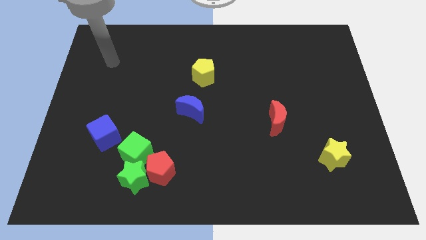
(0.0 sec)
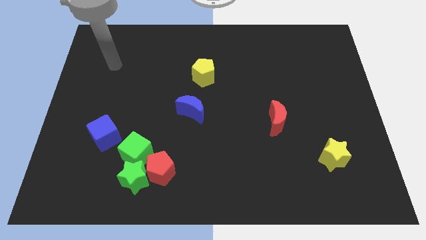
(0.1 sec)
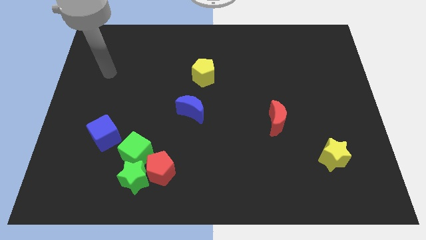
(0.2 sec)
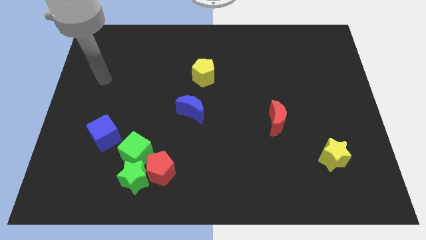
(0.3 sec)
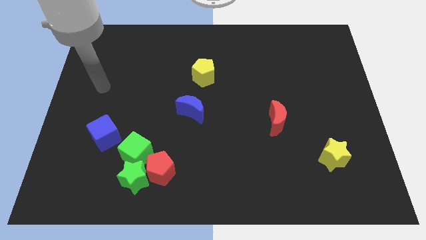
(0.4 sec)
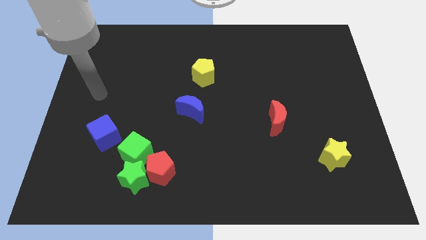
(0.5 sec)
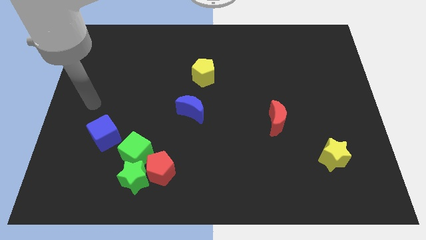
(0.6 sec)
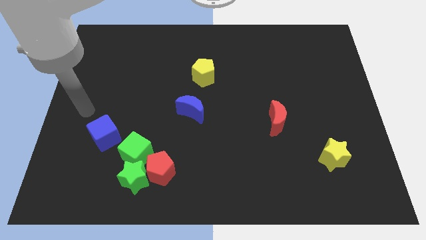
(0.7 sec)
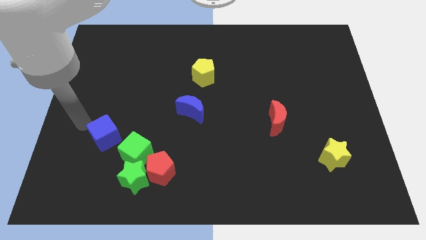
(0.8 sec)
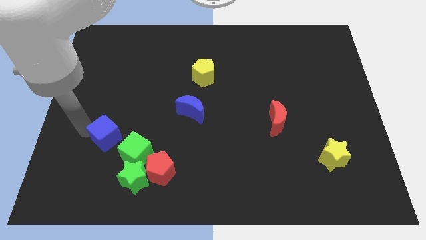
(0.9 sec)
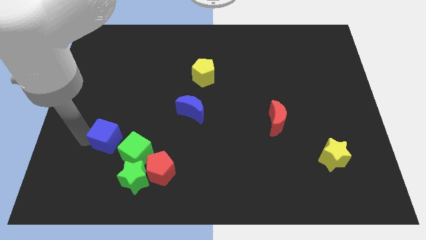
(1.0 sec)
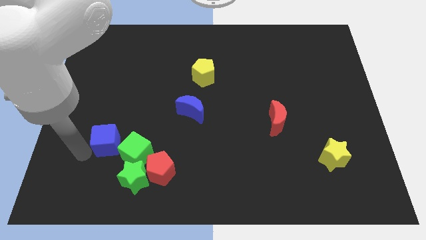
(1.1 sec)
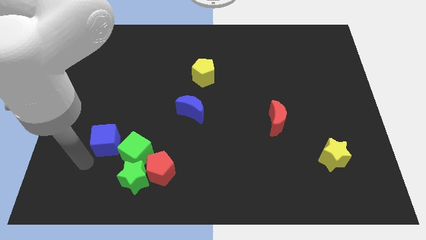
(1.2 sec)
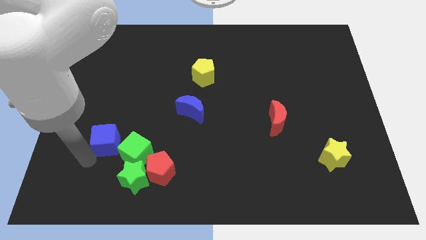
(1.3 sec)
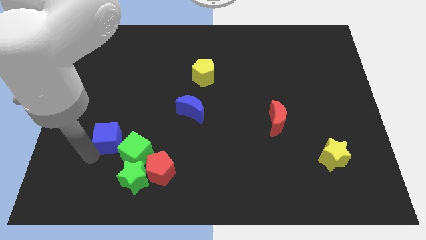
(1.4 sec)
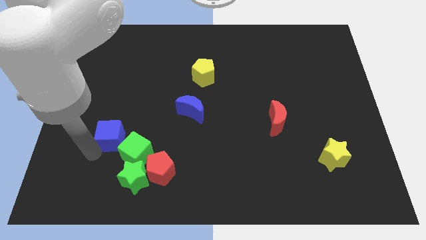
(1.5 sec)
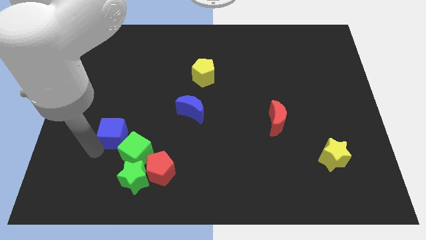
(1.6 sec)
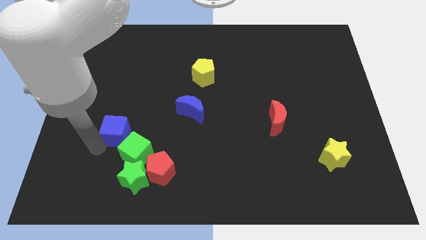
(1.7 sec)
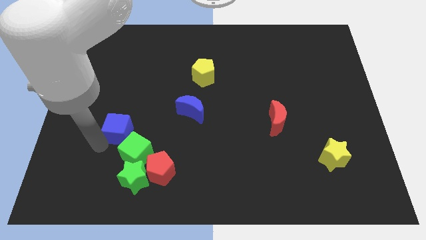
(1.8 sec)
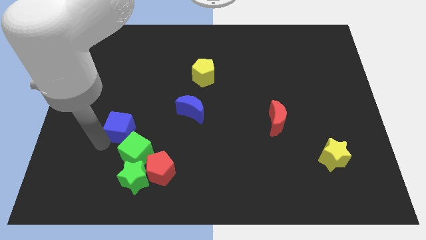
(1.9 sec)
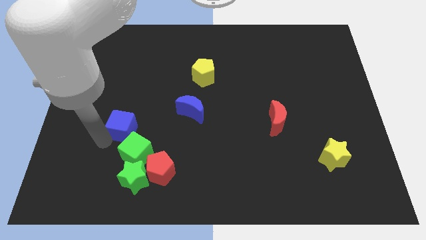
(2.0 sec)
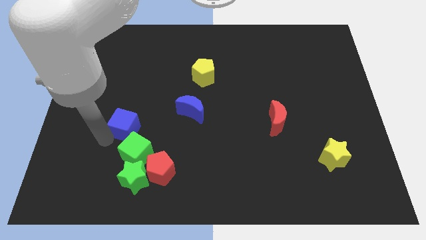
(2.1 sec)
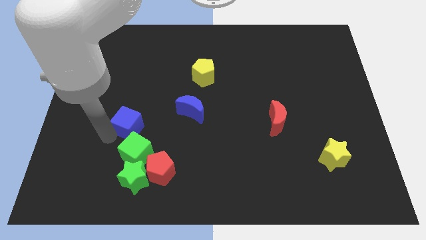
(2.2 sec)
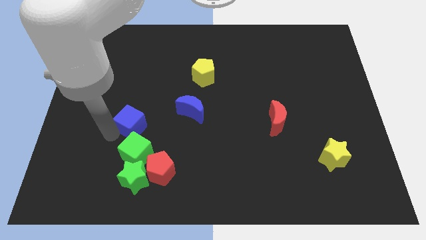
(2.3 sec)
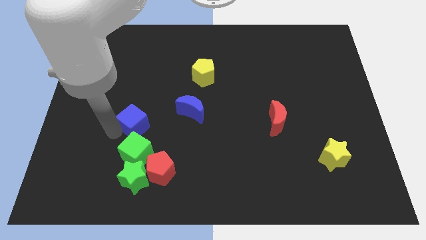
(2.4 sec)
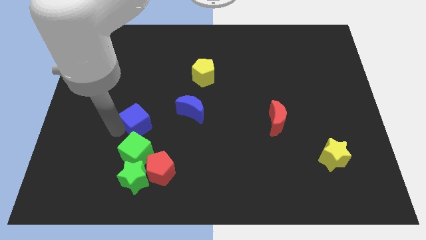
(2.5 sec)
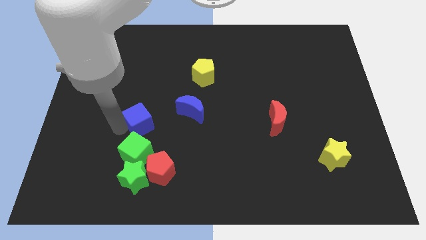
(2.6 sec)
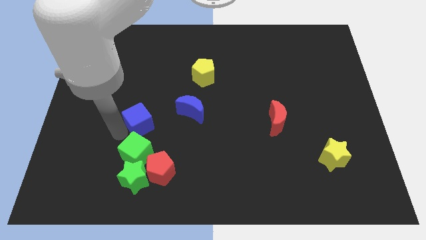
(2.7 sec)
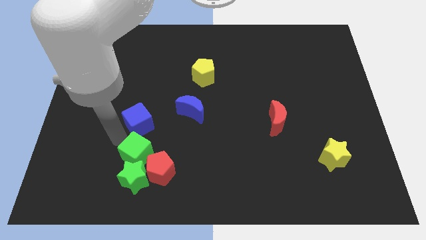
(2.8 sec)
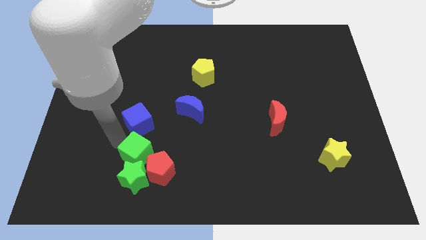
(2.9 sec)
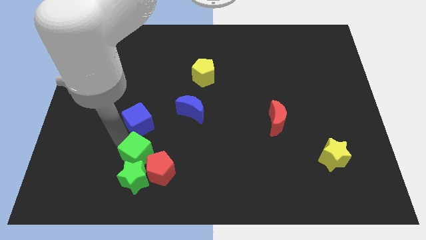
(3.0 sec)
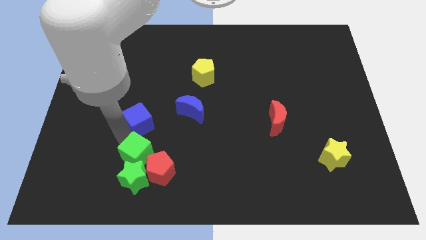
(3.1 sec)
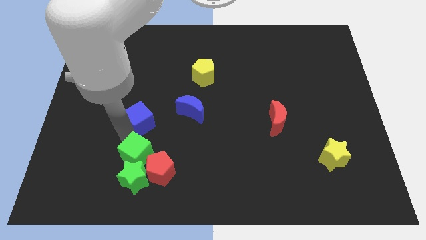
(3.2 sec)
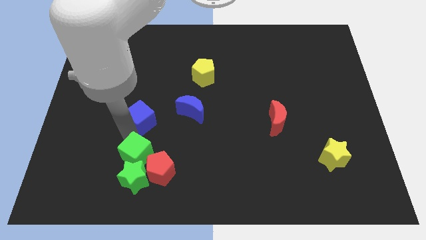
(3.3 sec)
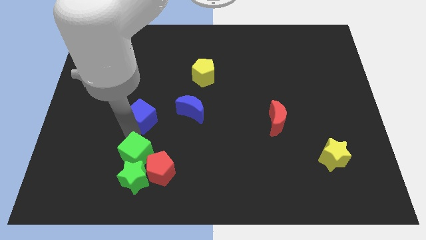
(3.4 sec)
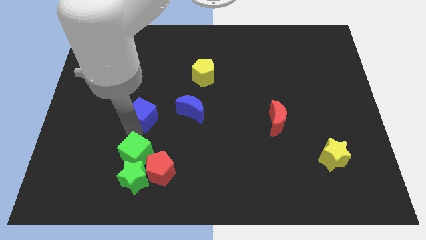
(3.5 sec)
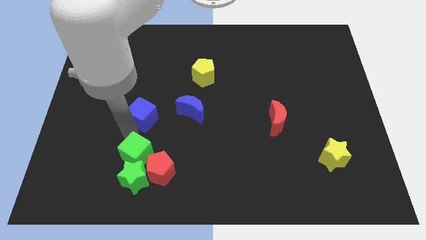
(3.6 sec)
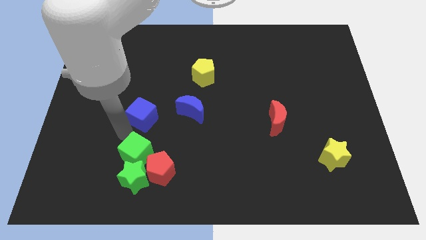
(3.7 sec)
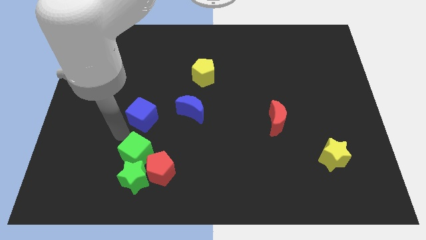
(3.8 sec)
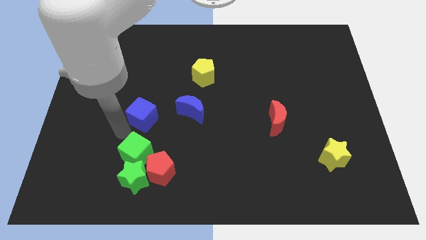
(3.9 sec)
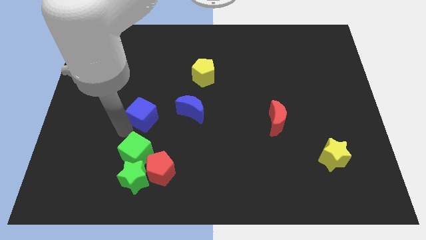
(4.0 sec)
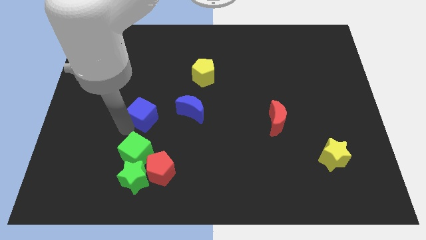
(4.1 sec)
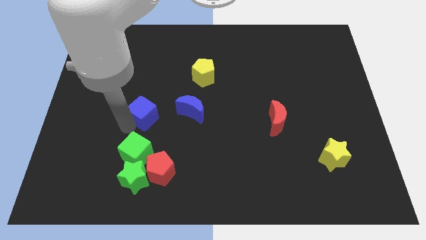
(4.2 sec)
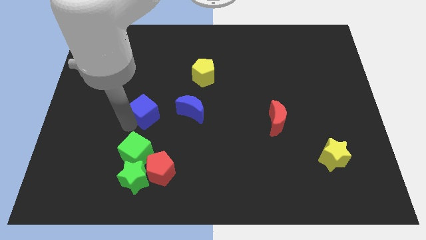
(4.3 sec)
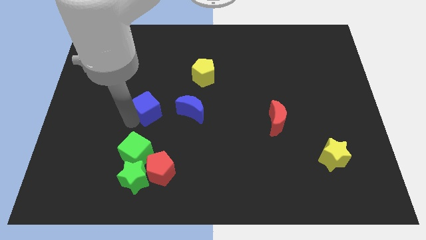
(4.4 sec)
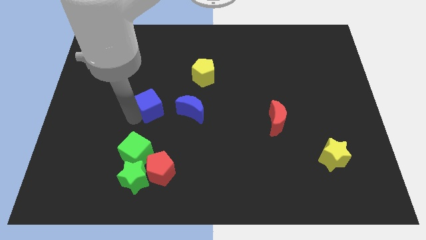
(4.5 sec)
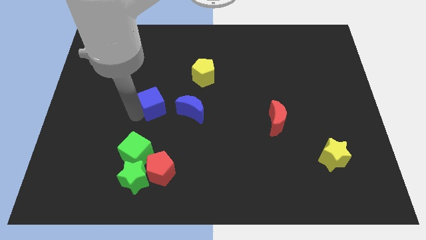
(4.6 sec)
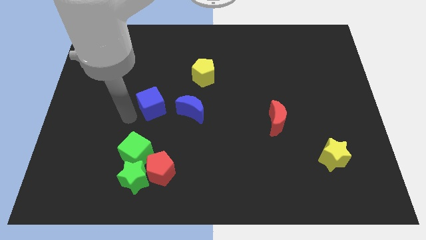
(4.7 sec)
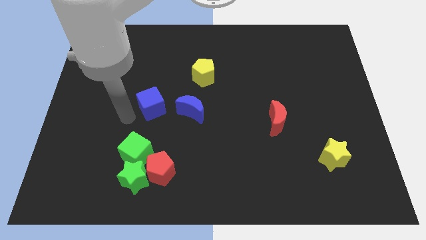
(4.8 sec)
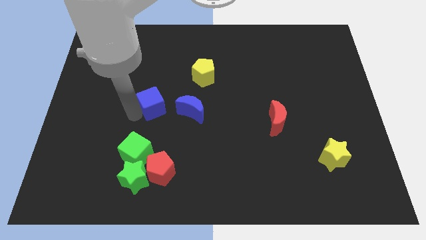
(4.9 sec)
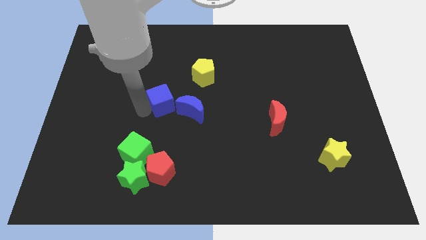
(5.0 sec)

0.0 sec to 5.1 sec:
put the blue cube to the middle of the board

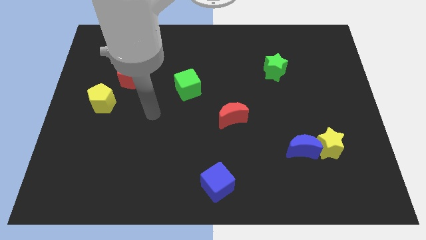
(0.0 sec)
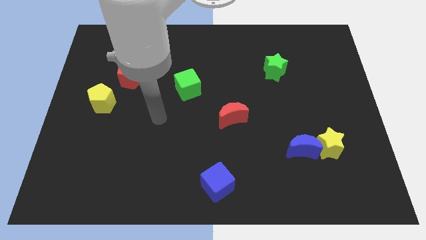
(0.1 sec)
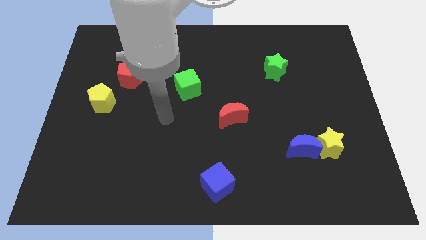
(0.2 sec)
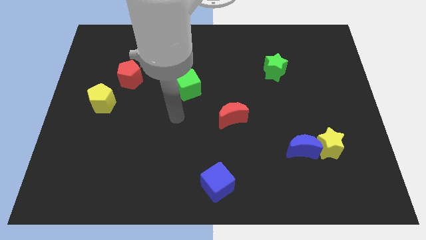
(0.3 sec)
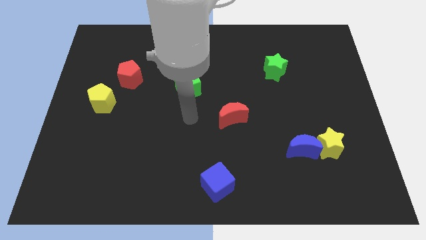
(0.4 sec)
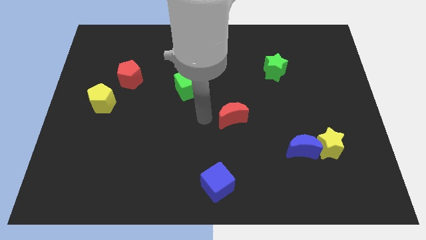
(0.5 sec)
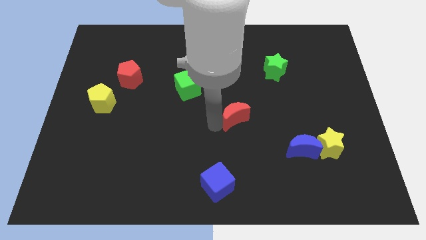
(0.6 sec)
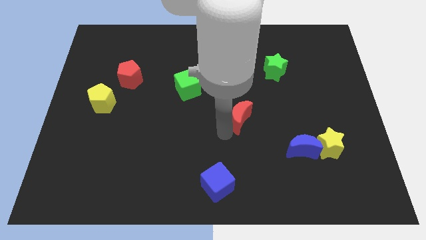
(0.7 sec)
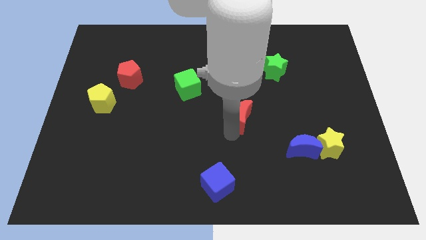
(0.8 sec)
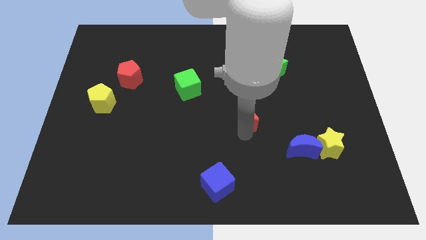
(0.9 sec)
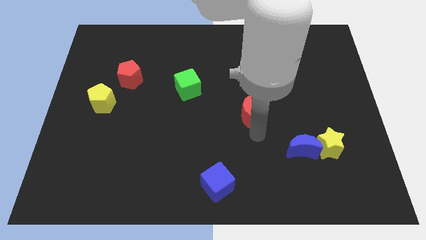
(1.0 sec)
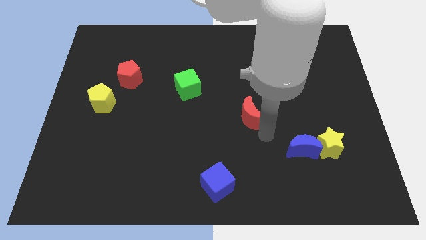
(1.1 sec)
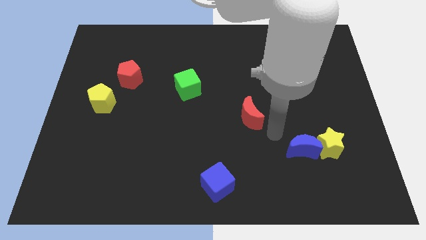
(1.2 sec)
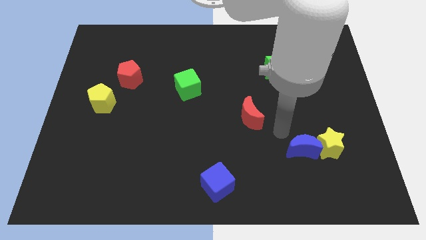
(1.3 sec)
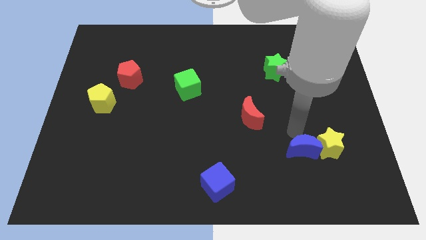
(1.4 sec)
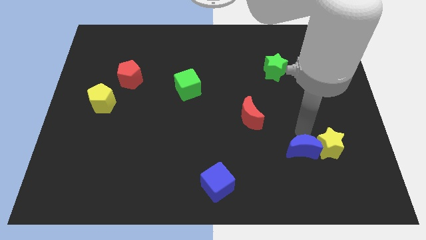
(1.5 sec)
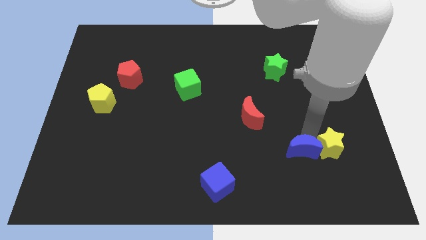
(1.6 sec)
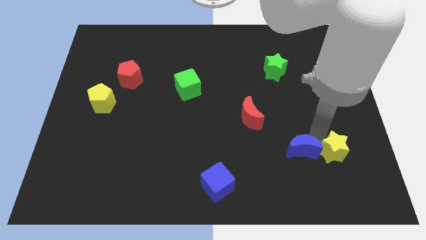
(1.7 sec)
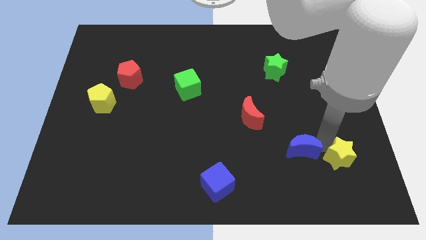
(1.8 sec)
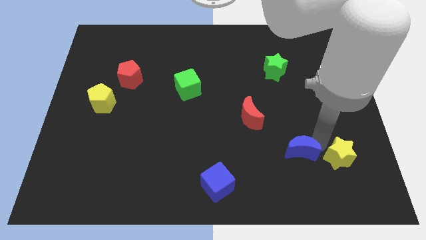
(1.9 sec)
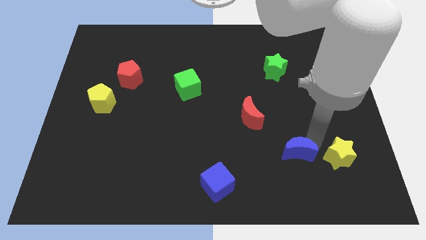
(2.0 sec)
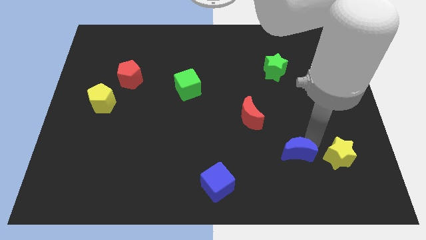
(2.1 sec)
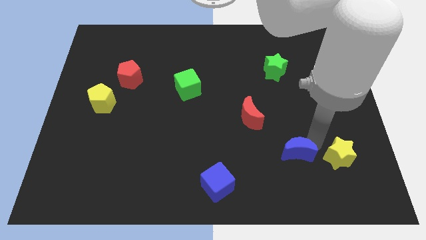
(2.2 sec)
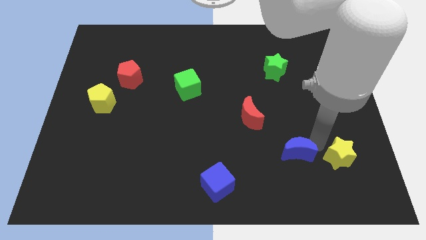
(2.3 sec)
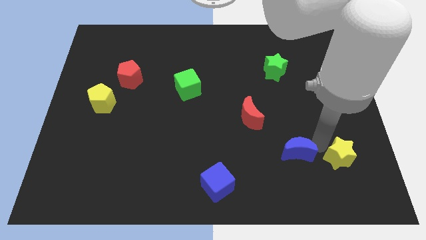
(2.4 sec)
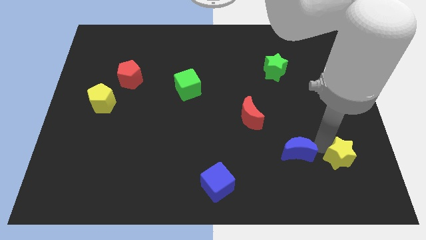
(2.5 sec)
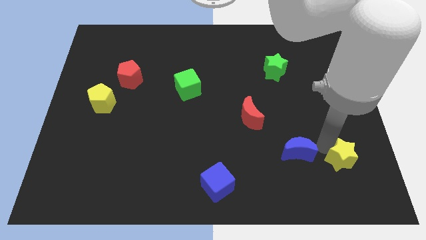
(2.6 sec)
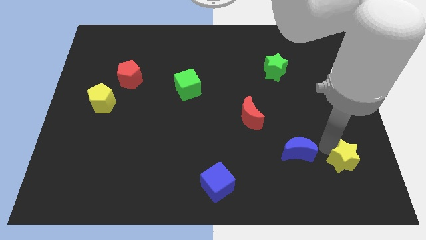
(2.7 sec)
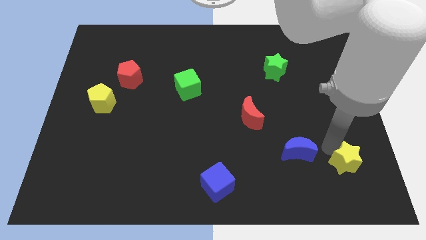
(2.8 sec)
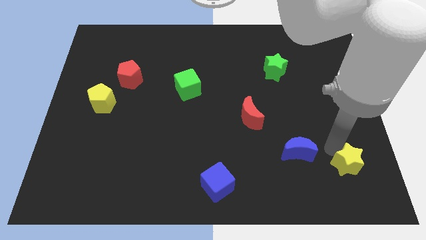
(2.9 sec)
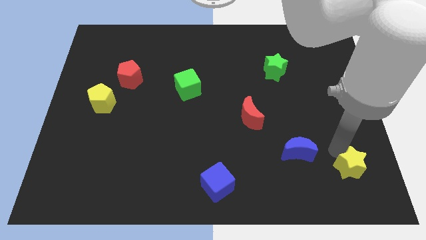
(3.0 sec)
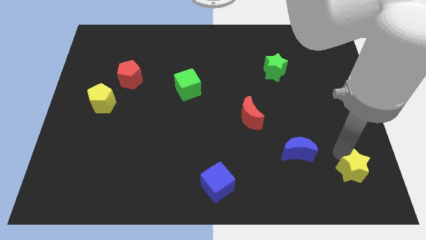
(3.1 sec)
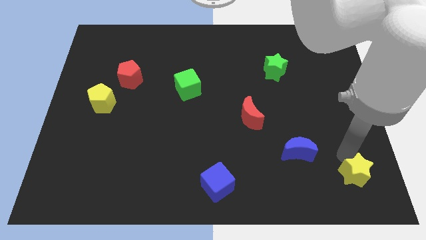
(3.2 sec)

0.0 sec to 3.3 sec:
put the yellow star to the lower right corner
